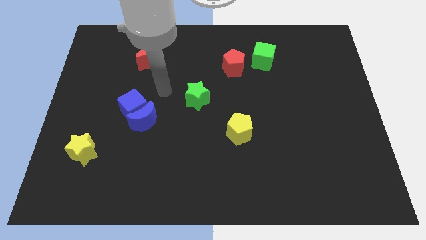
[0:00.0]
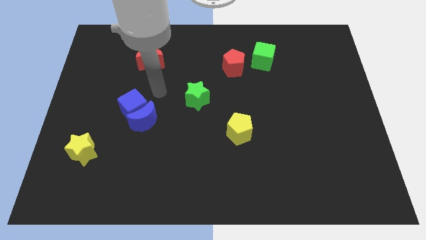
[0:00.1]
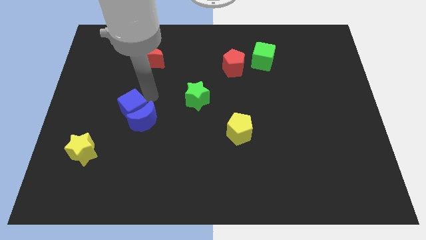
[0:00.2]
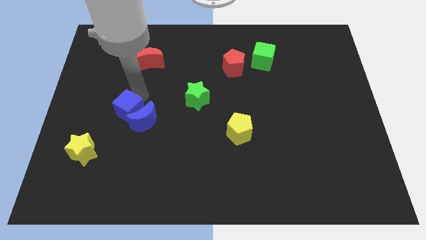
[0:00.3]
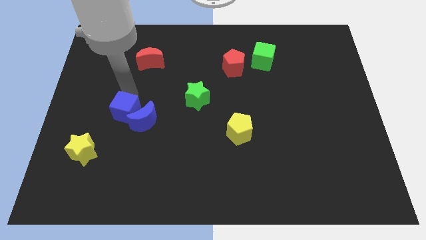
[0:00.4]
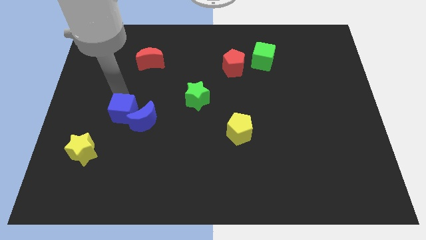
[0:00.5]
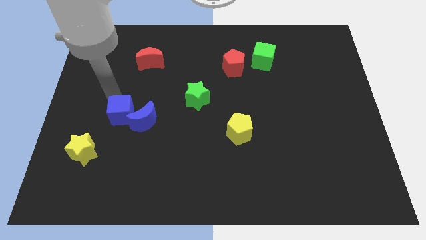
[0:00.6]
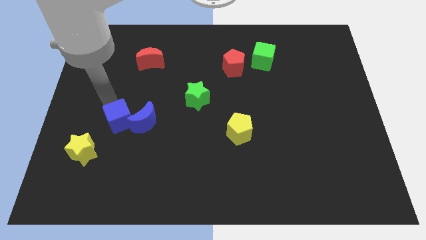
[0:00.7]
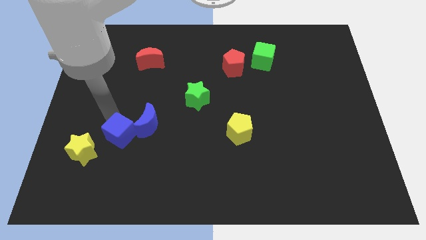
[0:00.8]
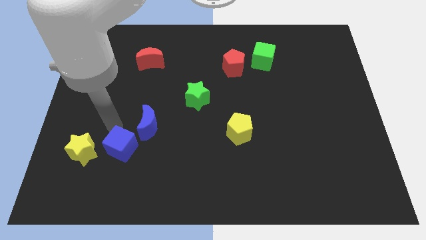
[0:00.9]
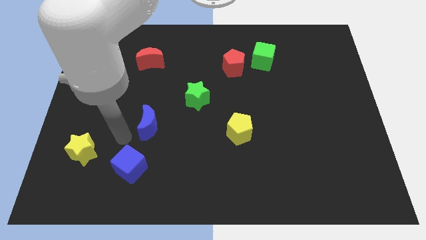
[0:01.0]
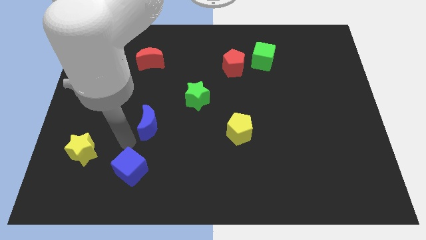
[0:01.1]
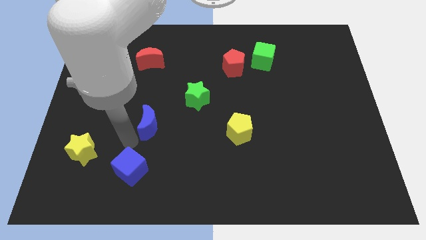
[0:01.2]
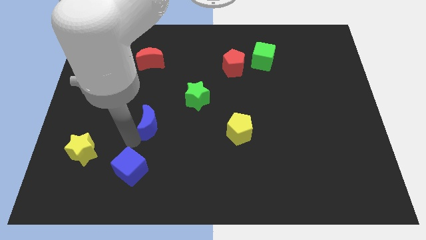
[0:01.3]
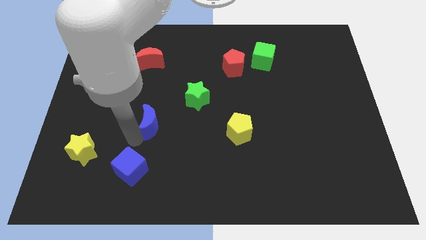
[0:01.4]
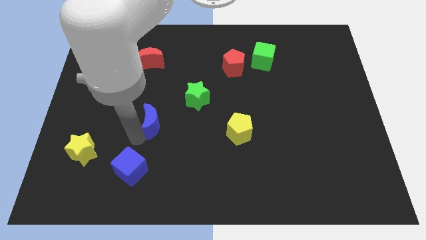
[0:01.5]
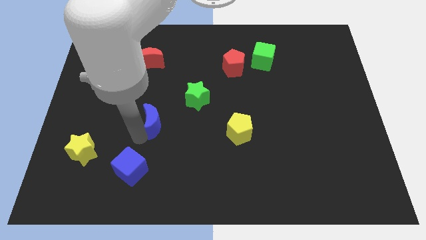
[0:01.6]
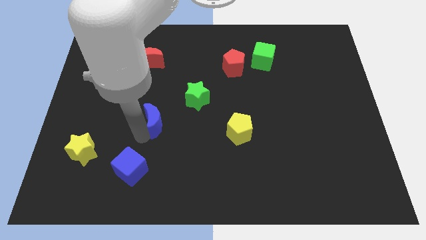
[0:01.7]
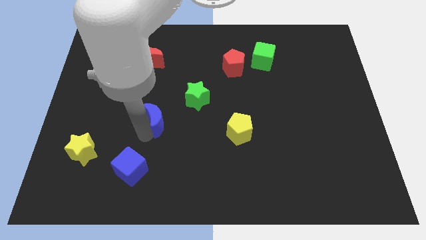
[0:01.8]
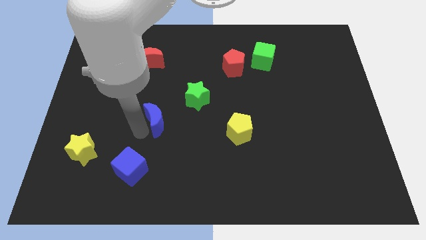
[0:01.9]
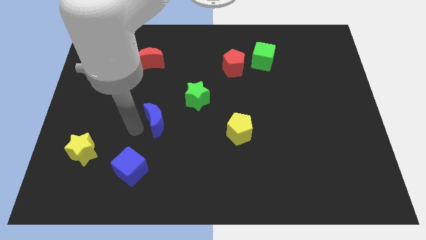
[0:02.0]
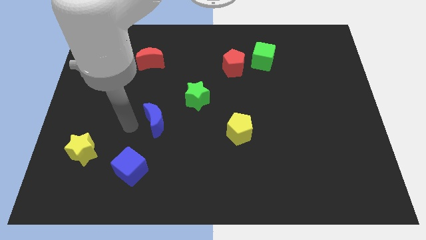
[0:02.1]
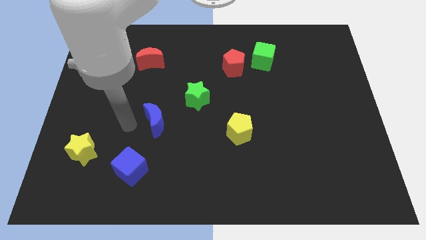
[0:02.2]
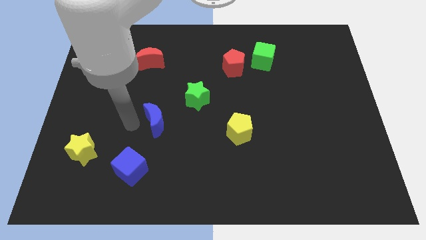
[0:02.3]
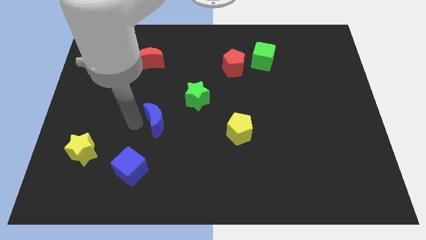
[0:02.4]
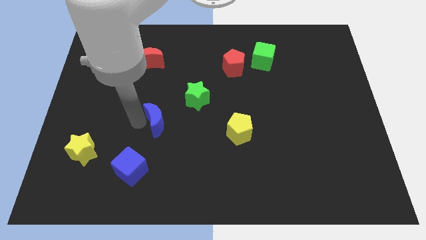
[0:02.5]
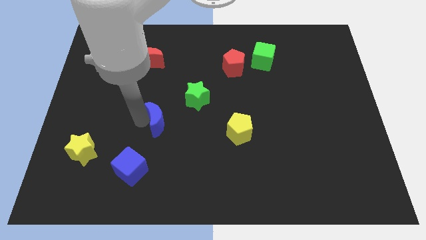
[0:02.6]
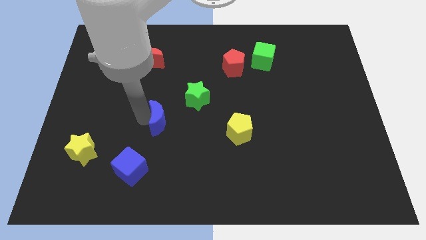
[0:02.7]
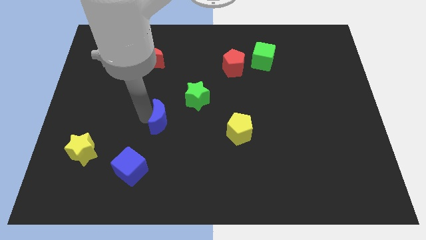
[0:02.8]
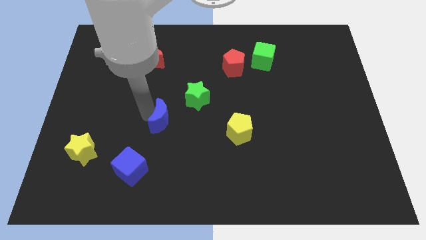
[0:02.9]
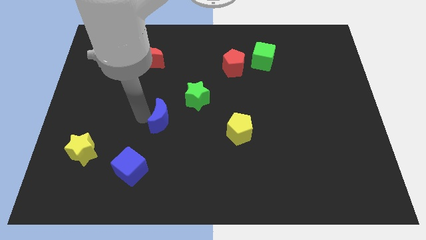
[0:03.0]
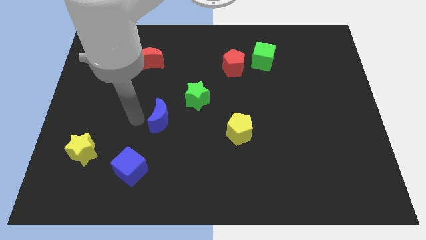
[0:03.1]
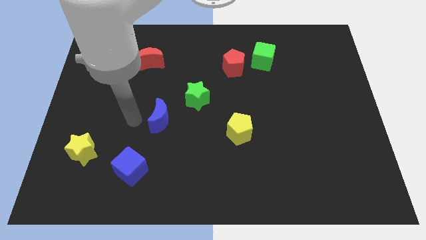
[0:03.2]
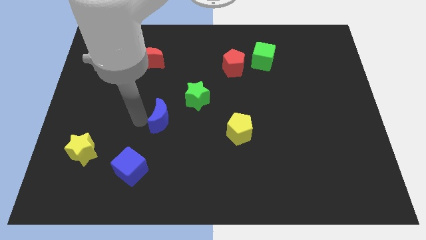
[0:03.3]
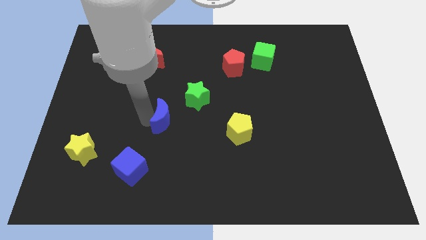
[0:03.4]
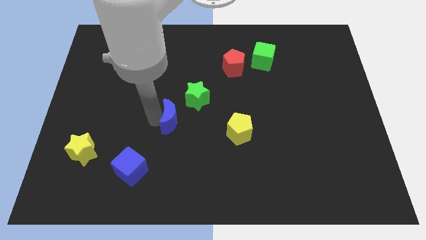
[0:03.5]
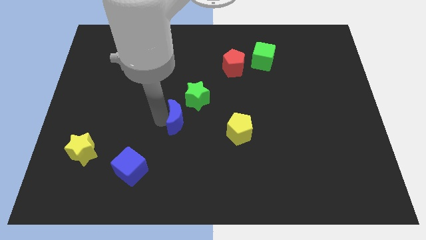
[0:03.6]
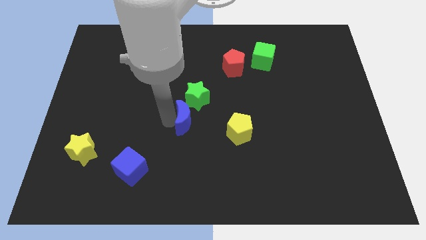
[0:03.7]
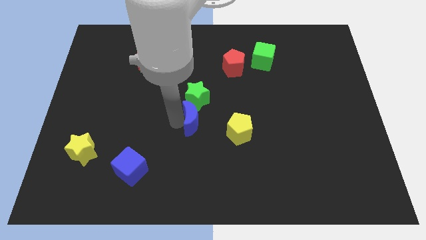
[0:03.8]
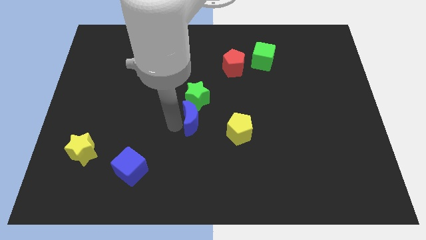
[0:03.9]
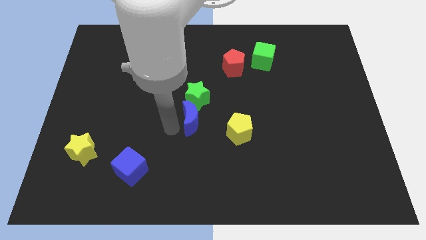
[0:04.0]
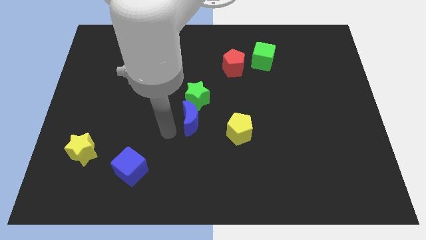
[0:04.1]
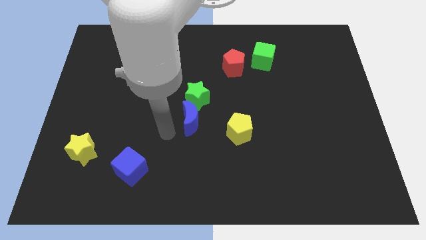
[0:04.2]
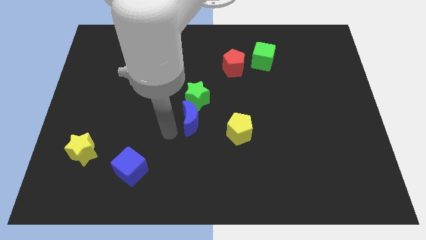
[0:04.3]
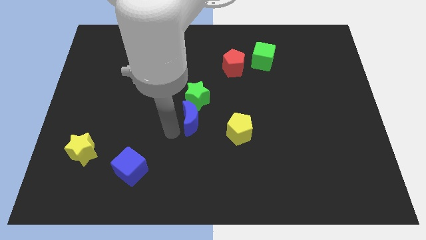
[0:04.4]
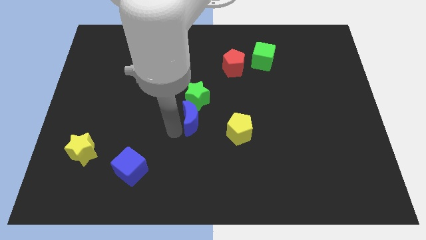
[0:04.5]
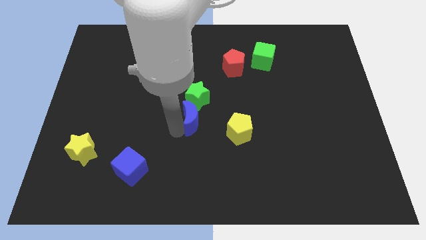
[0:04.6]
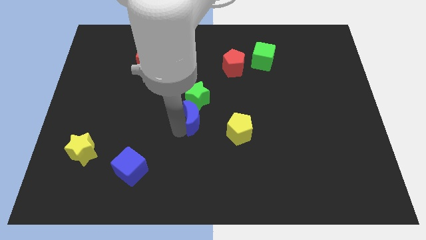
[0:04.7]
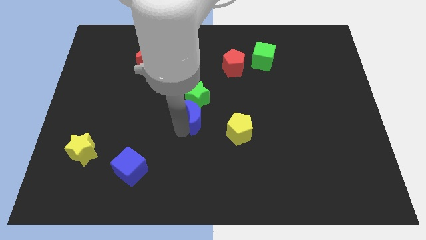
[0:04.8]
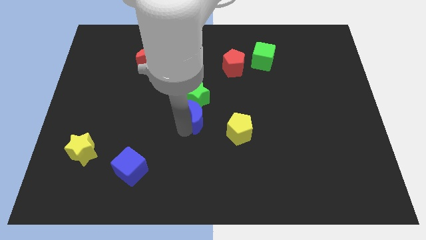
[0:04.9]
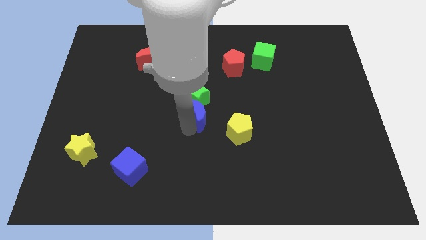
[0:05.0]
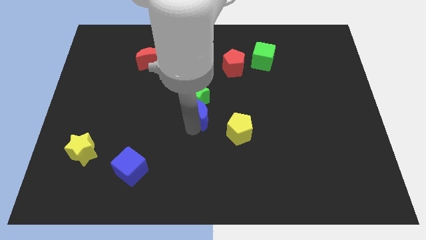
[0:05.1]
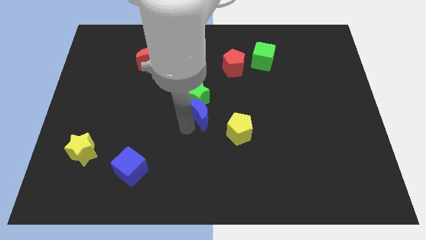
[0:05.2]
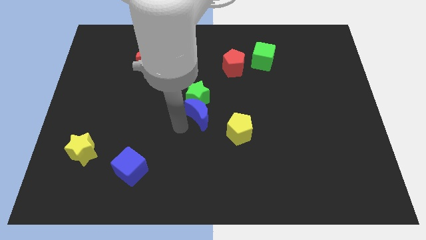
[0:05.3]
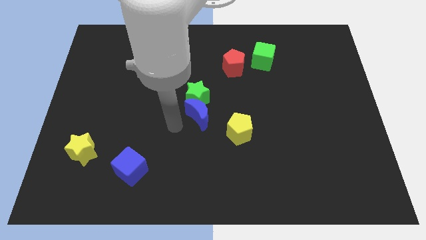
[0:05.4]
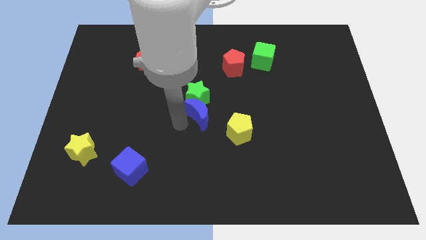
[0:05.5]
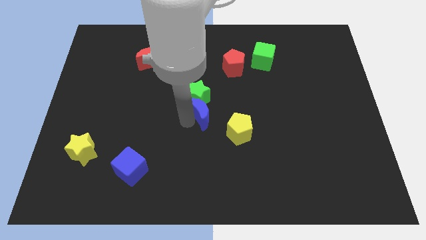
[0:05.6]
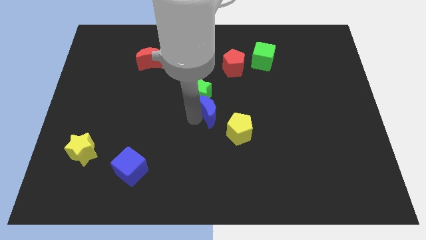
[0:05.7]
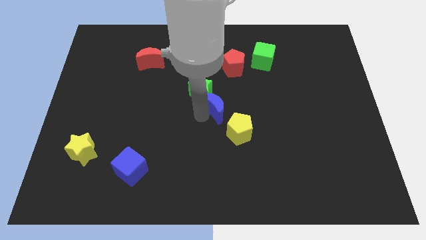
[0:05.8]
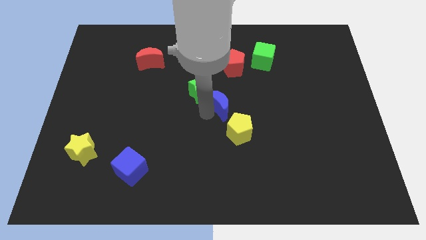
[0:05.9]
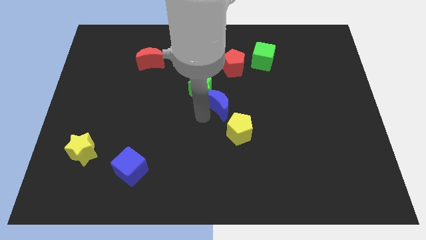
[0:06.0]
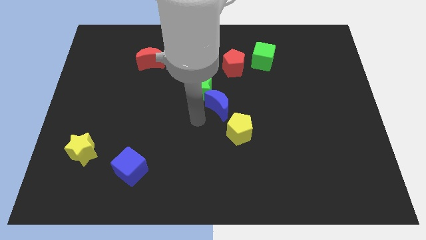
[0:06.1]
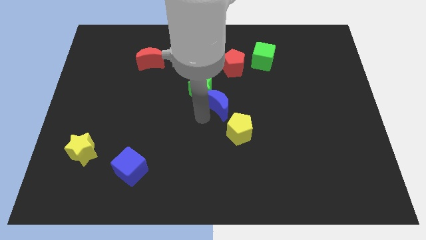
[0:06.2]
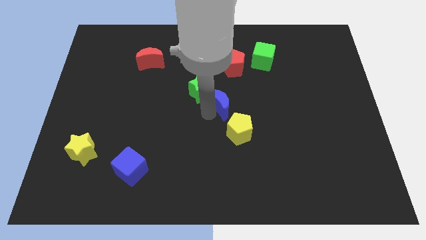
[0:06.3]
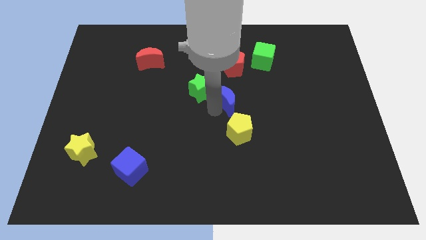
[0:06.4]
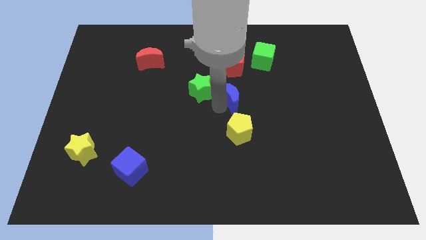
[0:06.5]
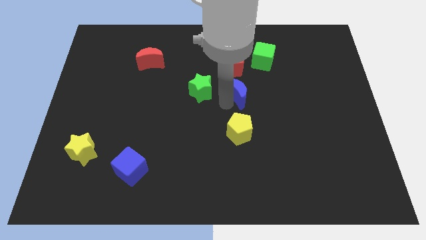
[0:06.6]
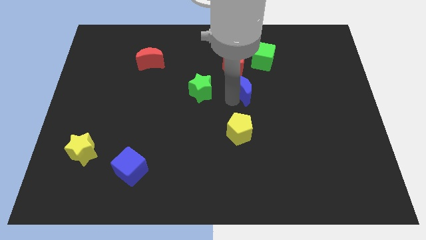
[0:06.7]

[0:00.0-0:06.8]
push the blue moon to the bottom right side of the red pentagon
